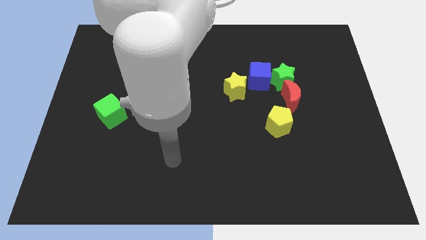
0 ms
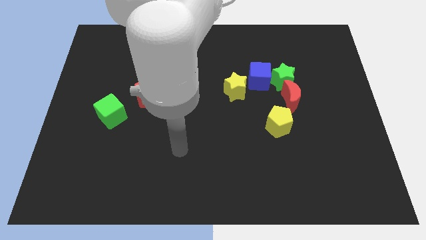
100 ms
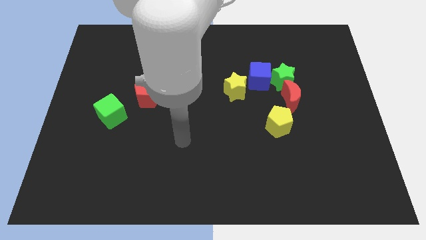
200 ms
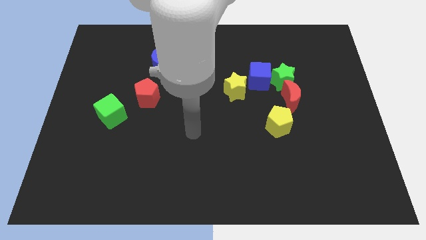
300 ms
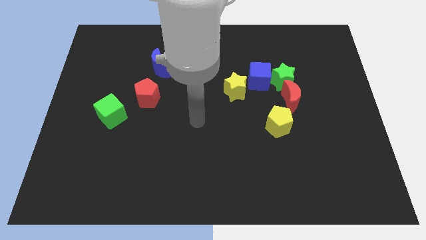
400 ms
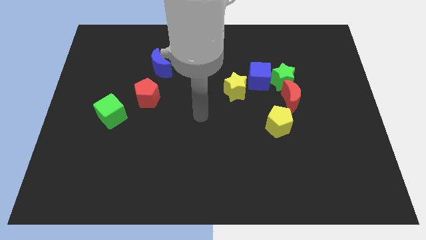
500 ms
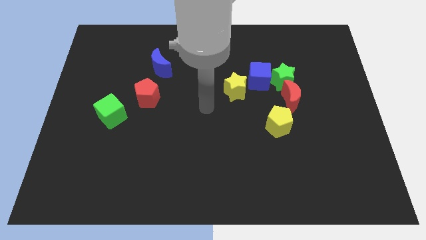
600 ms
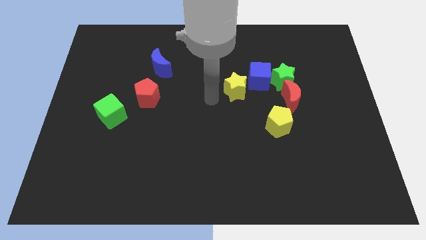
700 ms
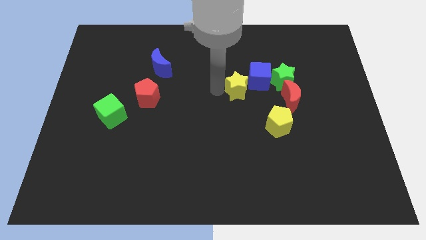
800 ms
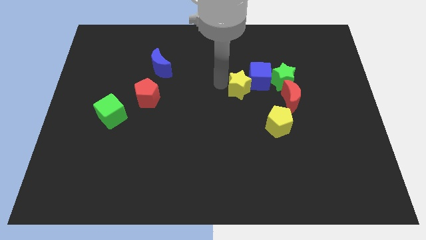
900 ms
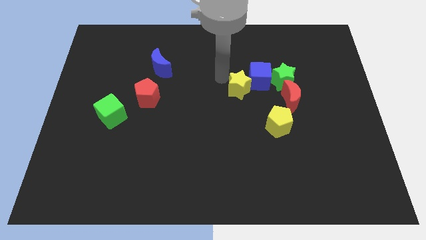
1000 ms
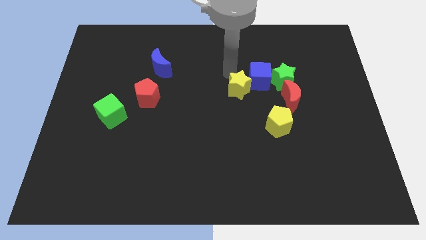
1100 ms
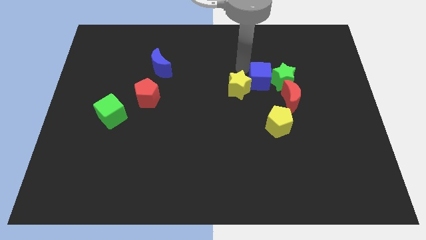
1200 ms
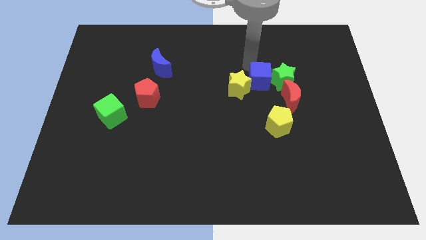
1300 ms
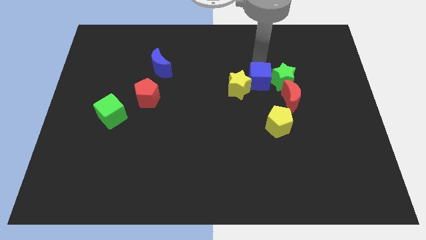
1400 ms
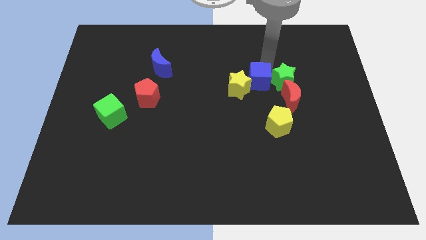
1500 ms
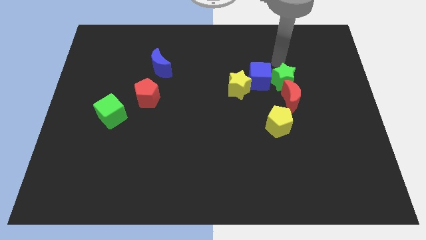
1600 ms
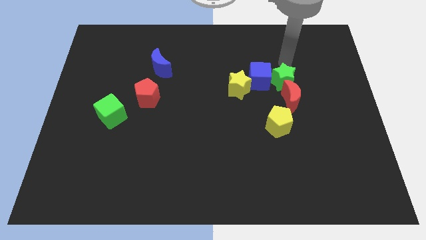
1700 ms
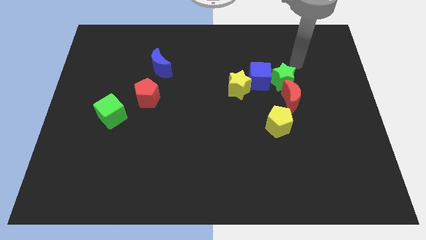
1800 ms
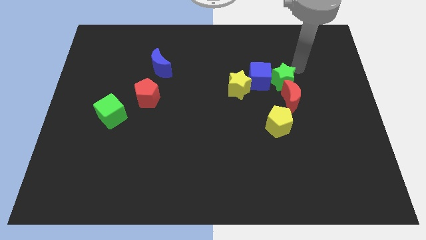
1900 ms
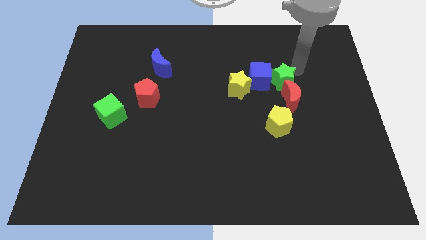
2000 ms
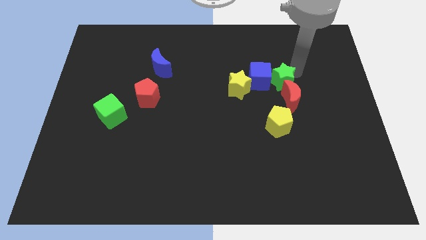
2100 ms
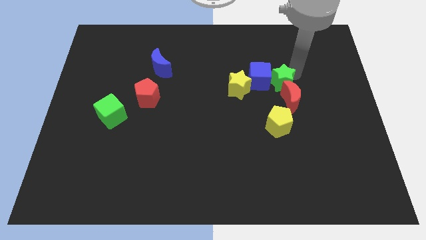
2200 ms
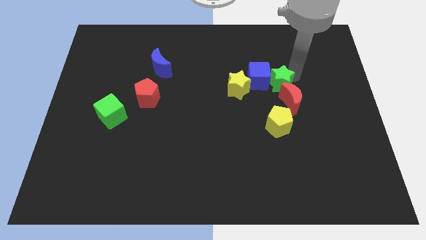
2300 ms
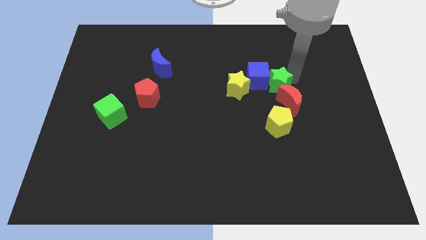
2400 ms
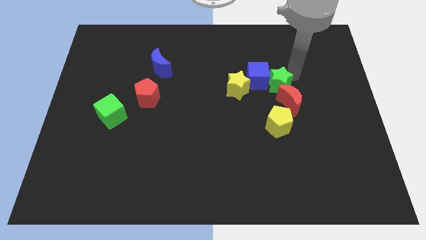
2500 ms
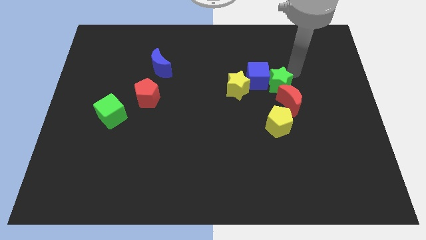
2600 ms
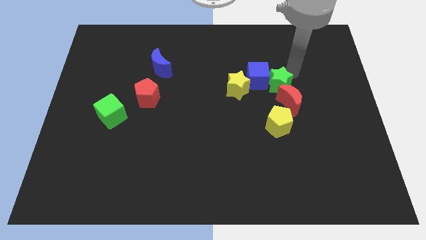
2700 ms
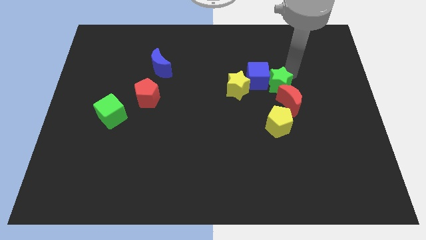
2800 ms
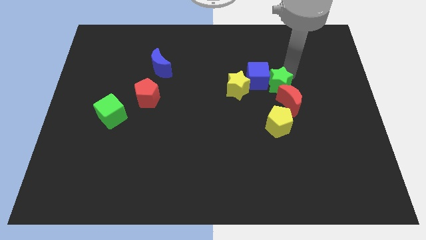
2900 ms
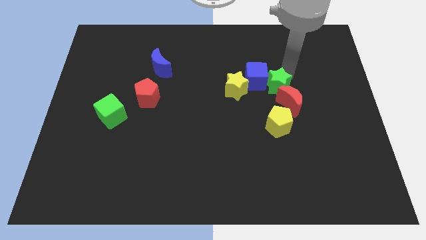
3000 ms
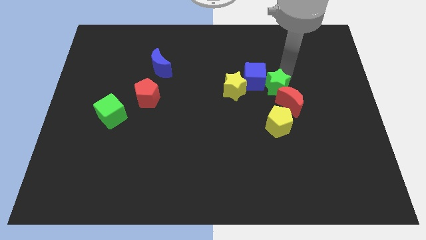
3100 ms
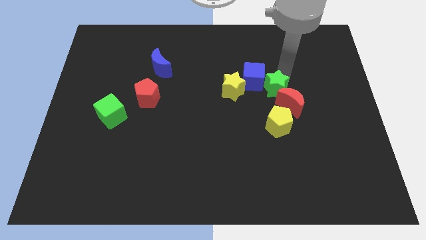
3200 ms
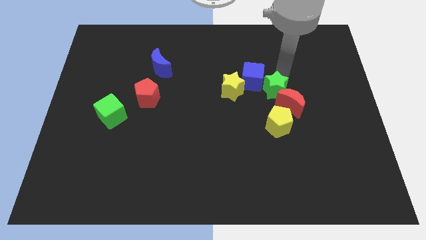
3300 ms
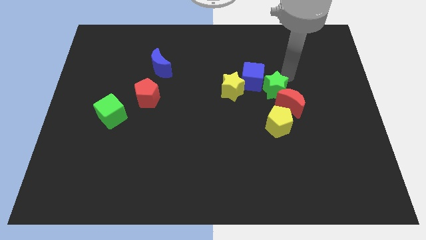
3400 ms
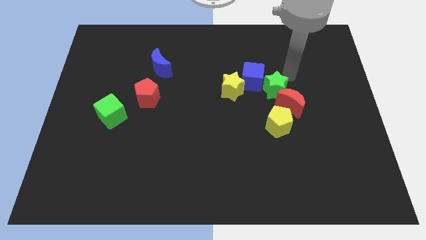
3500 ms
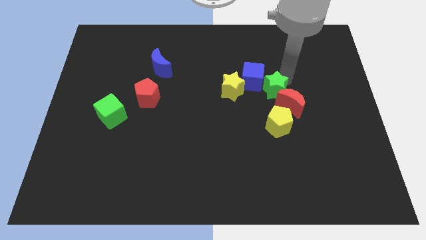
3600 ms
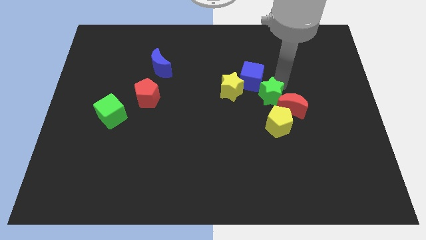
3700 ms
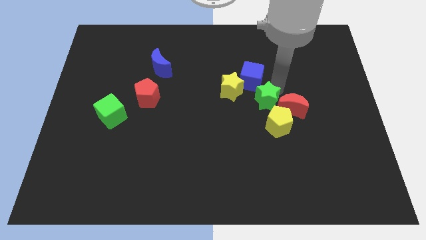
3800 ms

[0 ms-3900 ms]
slightly push the green star downwards and left

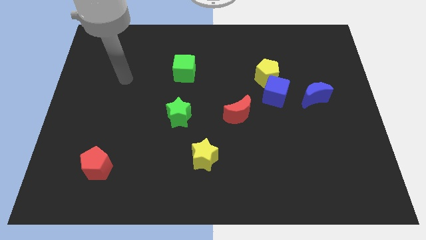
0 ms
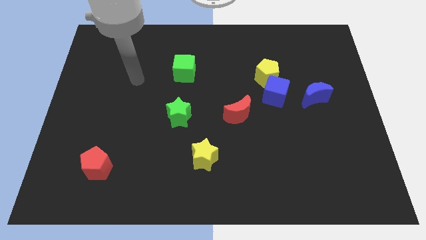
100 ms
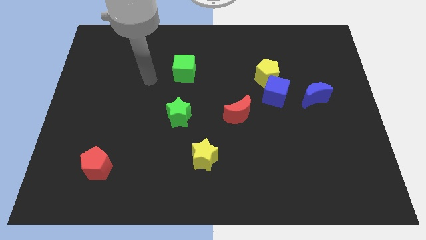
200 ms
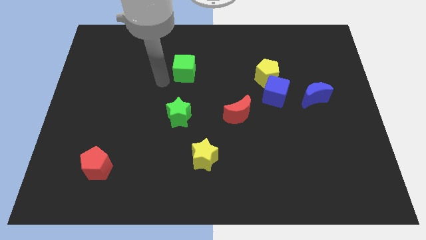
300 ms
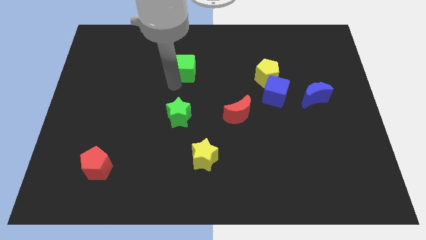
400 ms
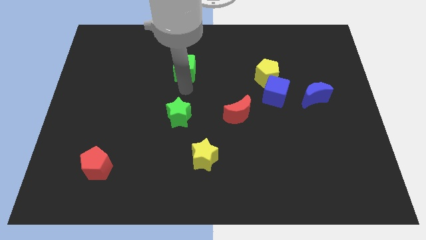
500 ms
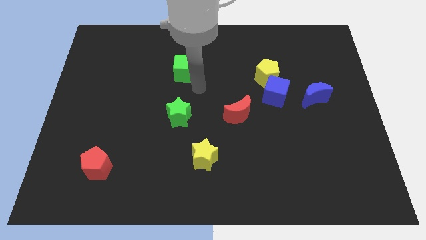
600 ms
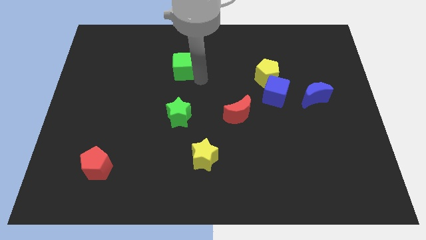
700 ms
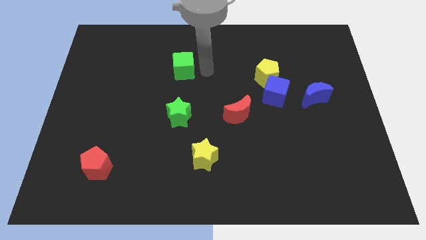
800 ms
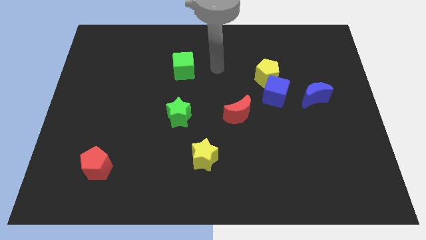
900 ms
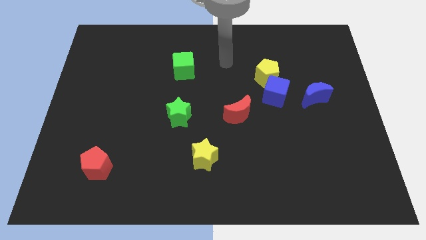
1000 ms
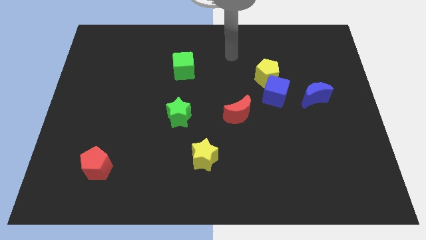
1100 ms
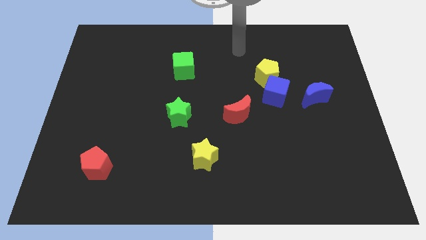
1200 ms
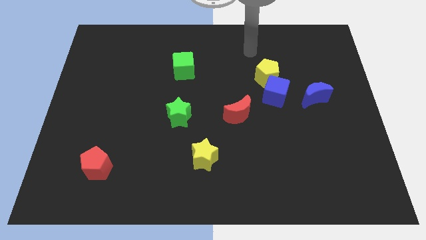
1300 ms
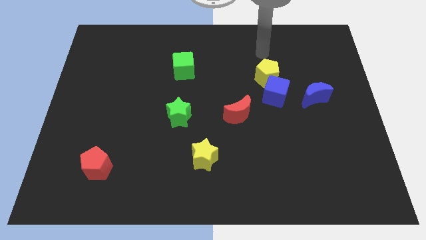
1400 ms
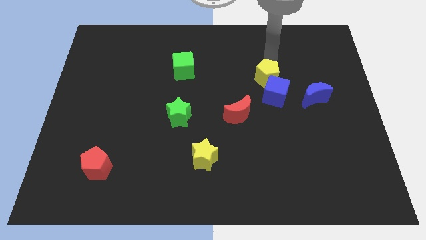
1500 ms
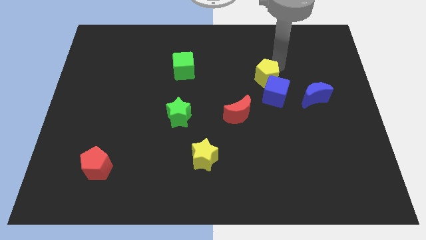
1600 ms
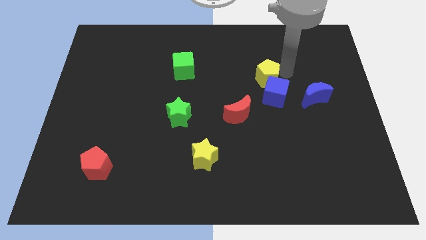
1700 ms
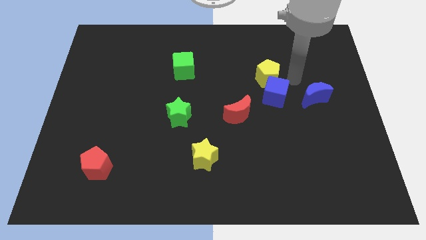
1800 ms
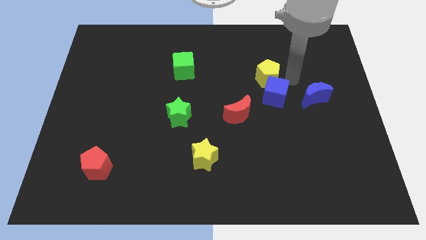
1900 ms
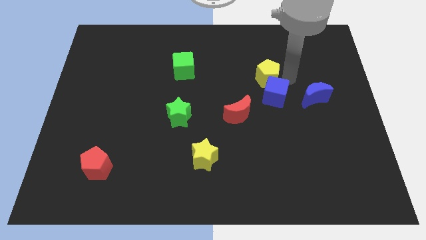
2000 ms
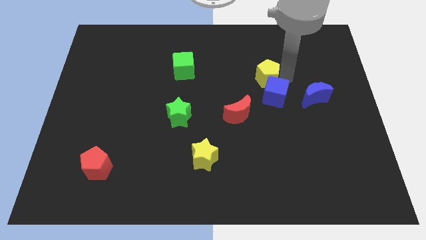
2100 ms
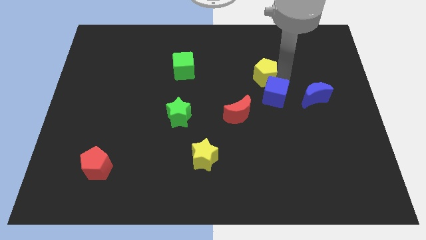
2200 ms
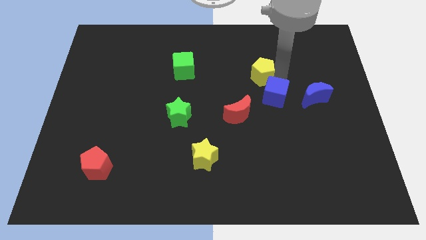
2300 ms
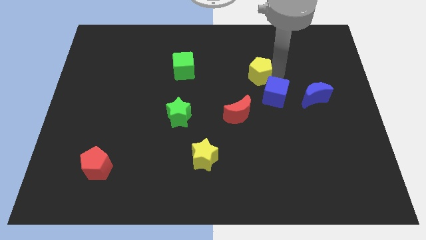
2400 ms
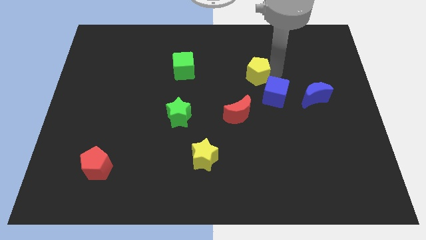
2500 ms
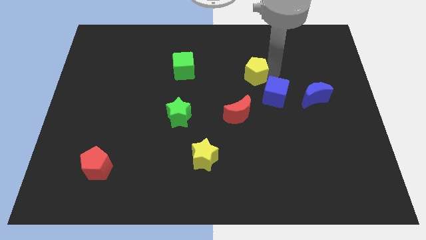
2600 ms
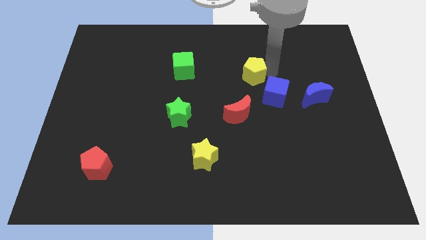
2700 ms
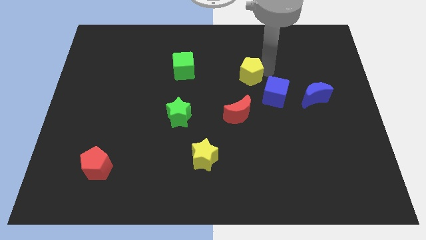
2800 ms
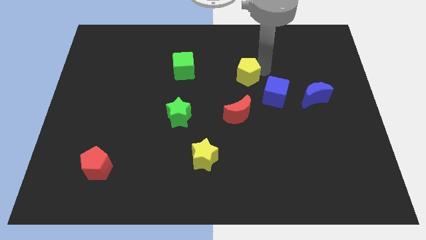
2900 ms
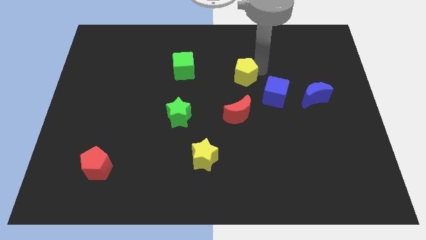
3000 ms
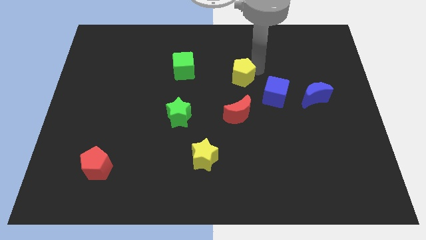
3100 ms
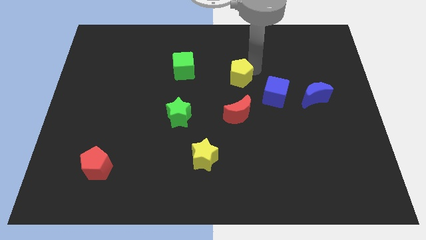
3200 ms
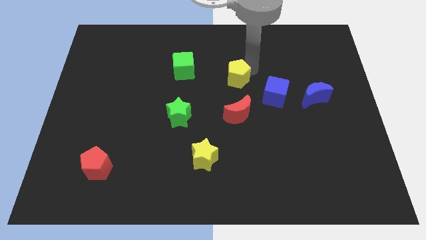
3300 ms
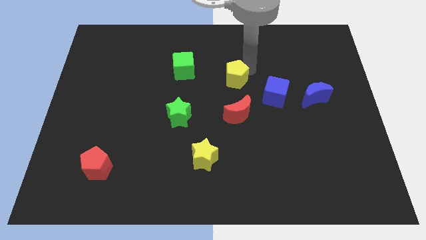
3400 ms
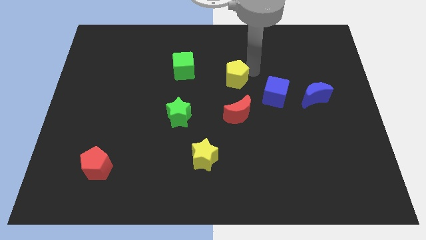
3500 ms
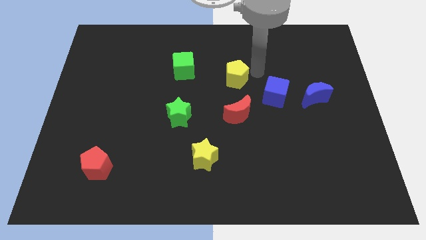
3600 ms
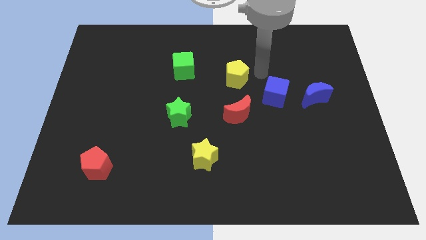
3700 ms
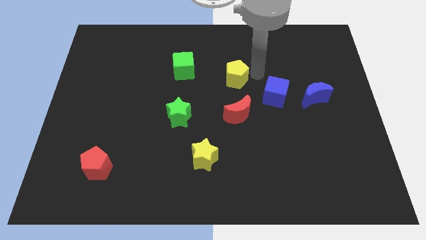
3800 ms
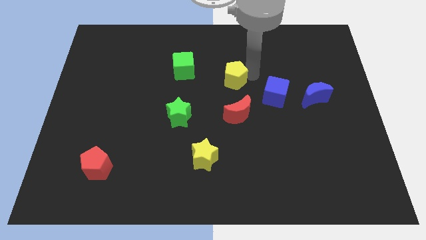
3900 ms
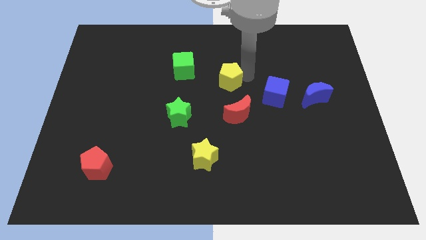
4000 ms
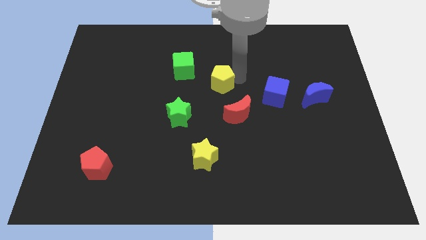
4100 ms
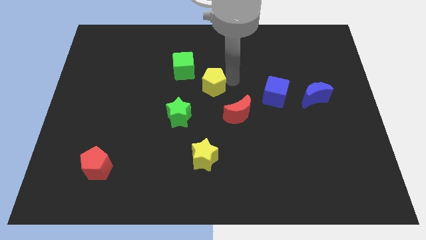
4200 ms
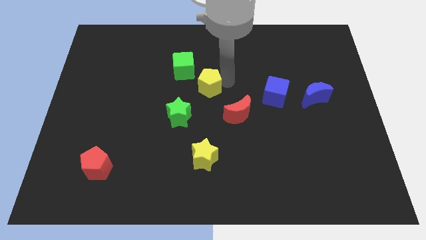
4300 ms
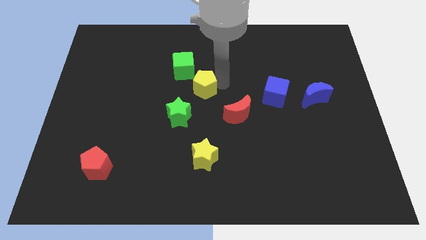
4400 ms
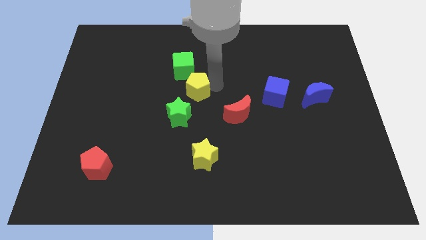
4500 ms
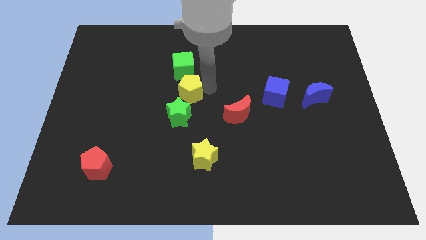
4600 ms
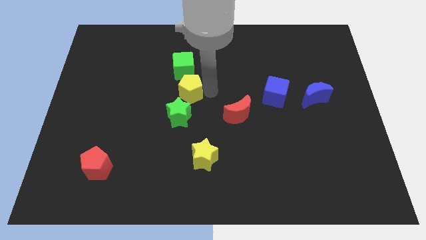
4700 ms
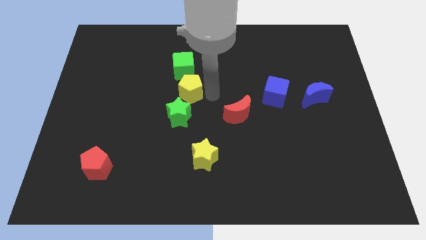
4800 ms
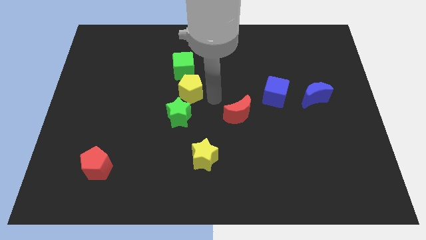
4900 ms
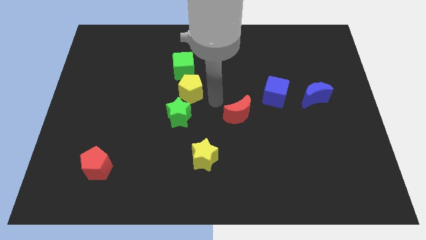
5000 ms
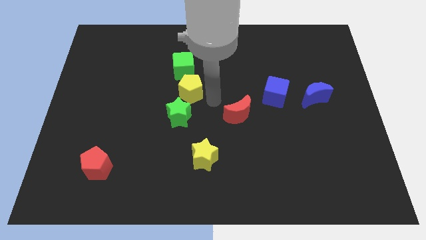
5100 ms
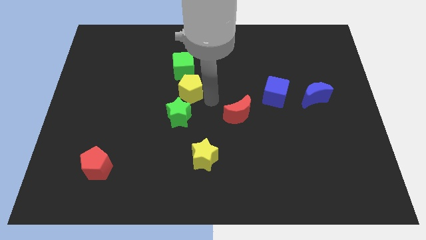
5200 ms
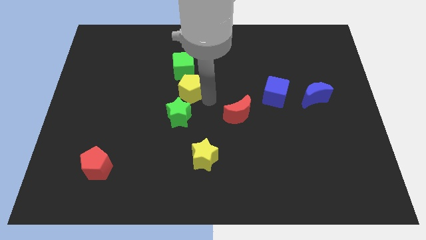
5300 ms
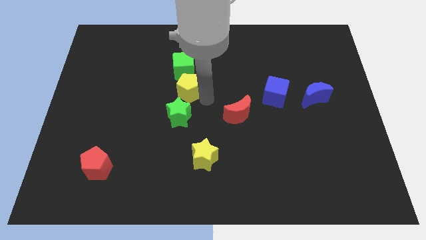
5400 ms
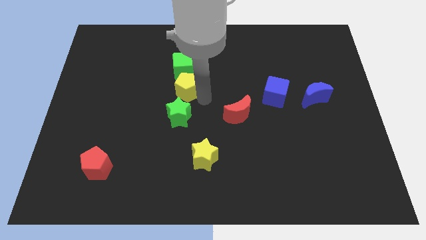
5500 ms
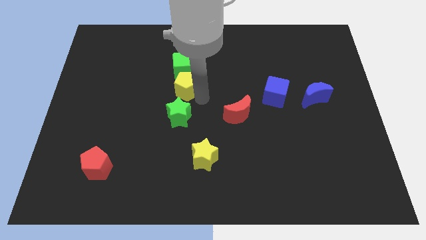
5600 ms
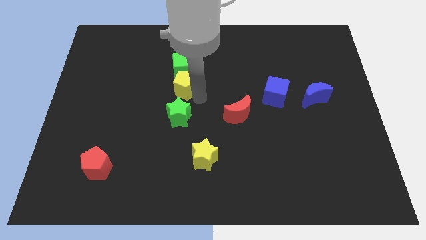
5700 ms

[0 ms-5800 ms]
slide the yellow pentagon left
